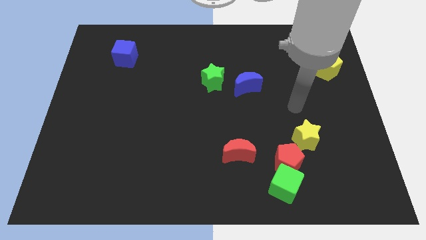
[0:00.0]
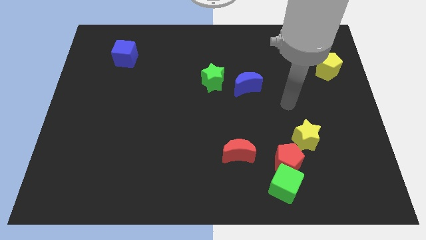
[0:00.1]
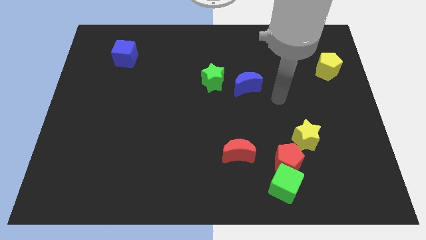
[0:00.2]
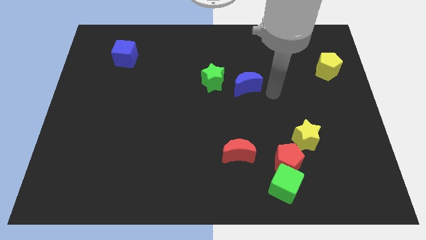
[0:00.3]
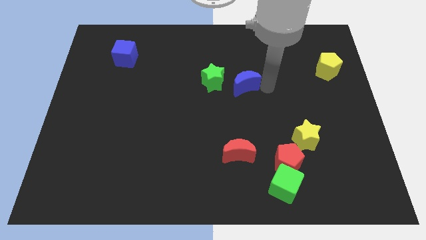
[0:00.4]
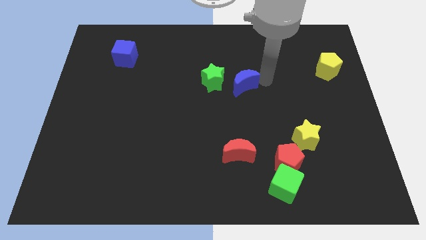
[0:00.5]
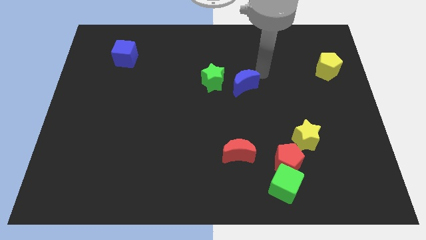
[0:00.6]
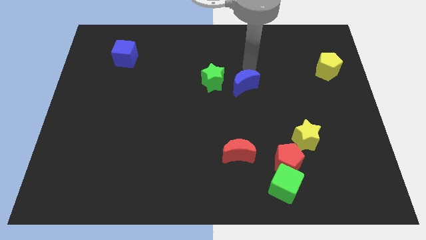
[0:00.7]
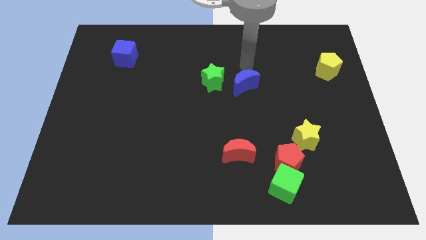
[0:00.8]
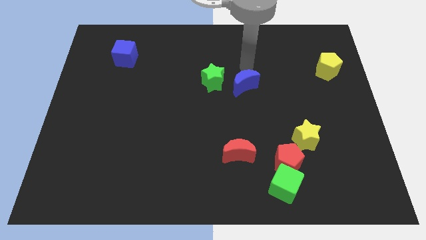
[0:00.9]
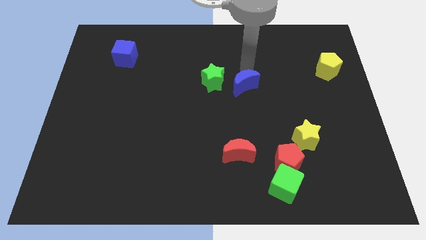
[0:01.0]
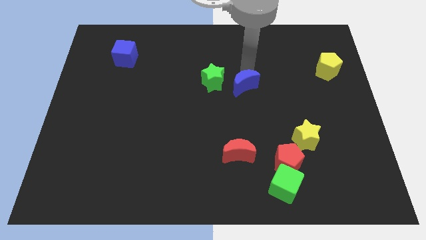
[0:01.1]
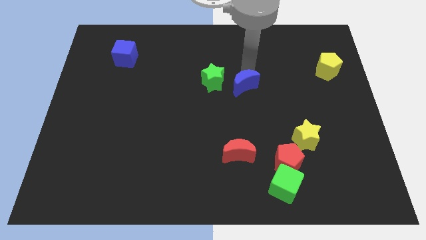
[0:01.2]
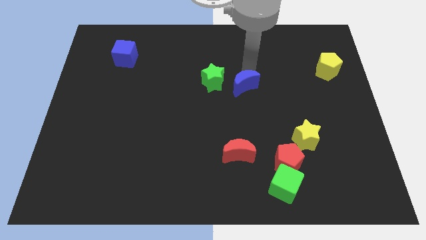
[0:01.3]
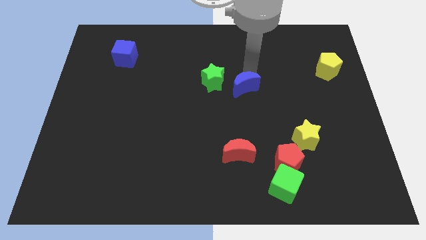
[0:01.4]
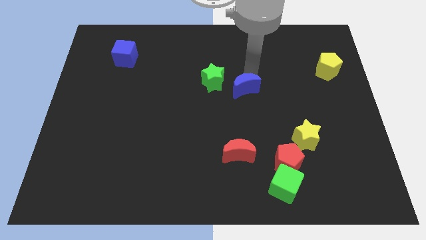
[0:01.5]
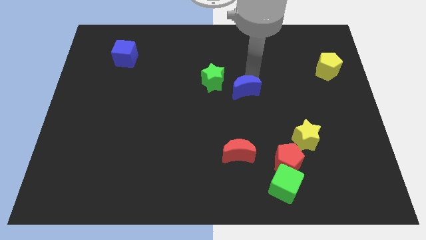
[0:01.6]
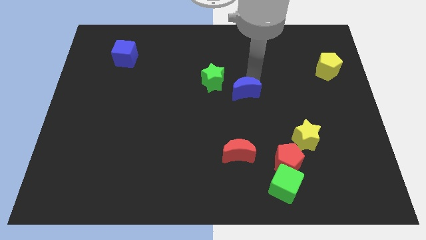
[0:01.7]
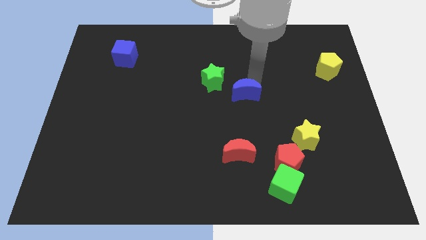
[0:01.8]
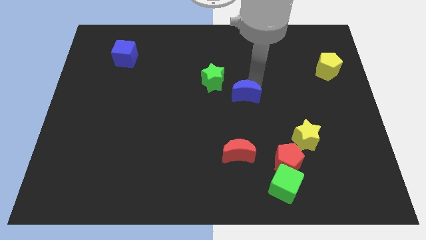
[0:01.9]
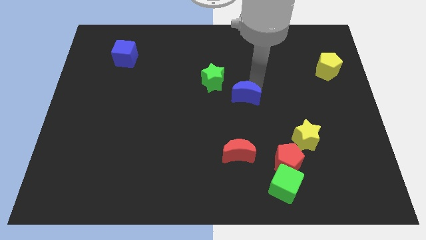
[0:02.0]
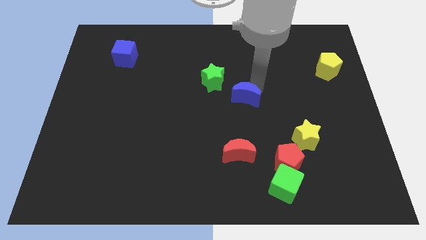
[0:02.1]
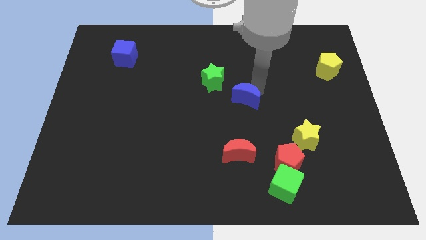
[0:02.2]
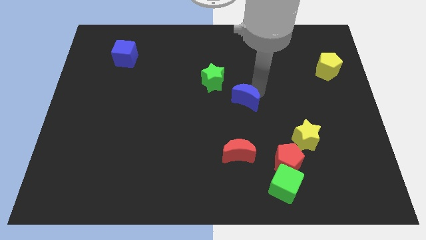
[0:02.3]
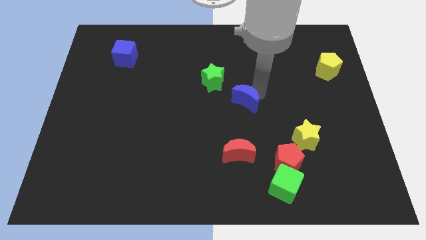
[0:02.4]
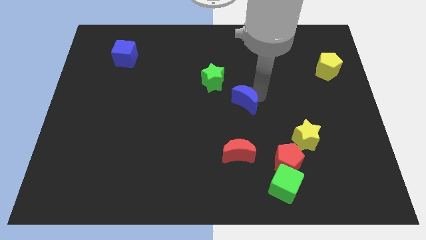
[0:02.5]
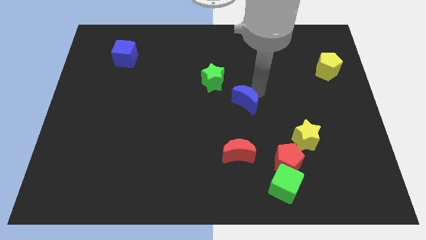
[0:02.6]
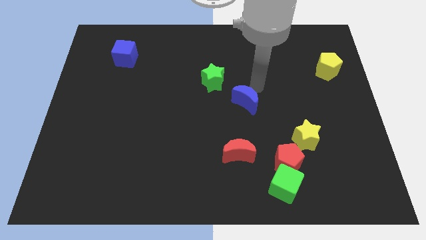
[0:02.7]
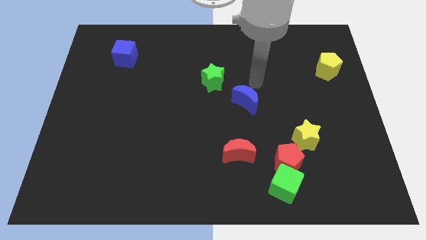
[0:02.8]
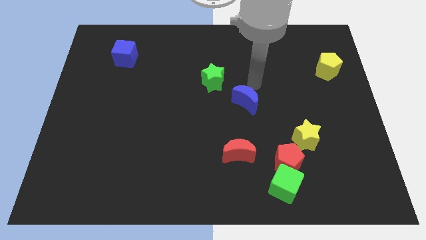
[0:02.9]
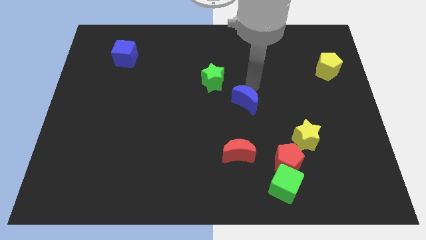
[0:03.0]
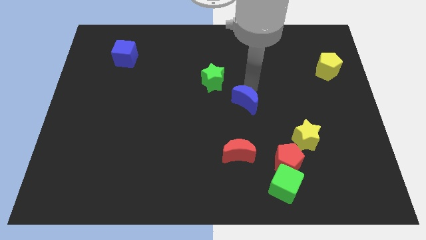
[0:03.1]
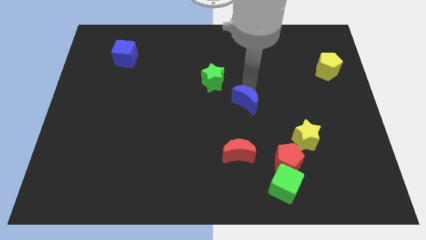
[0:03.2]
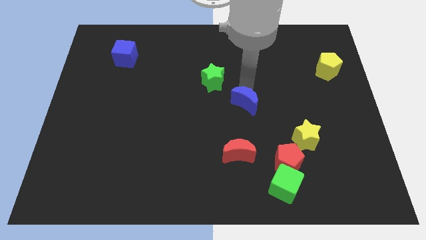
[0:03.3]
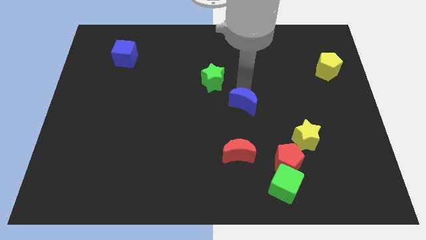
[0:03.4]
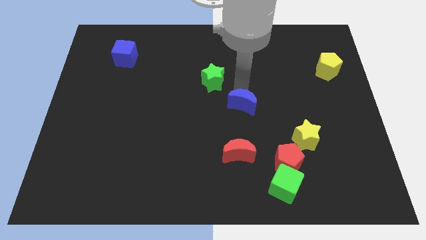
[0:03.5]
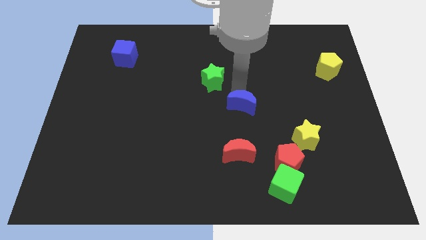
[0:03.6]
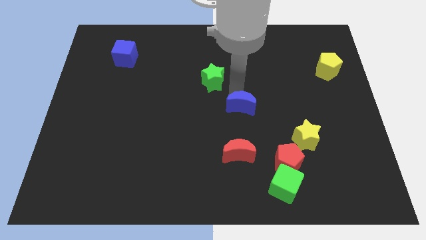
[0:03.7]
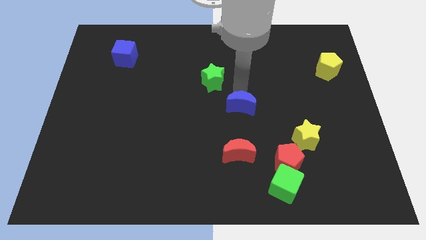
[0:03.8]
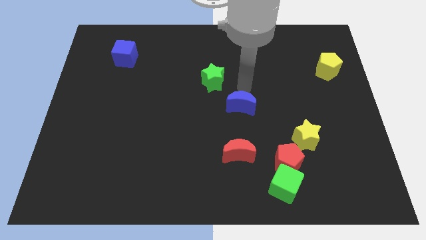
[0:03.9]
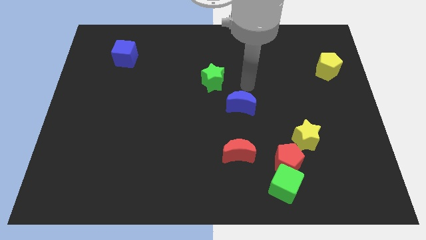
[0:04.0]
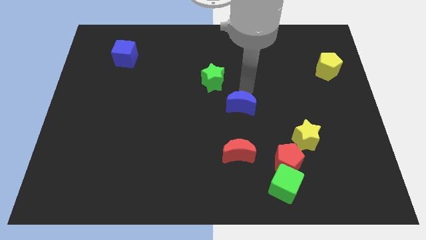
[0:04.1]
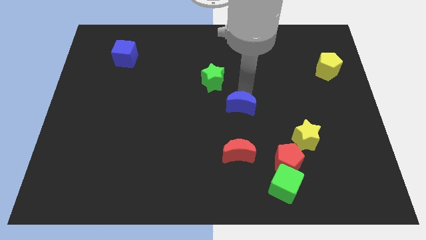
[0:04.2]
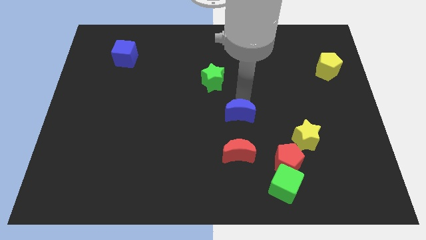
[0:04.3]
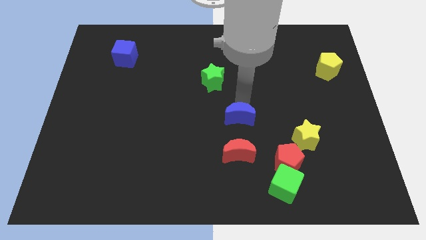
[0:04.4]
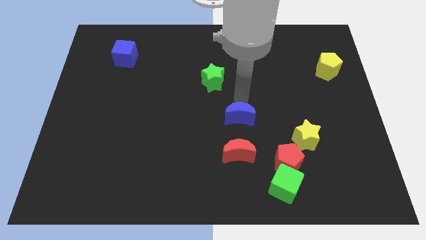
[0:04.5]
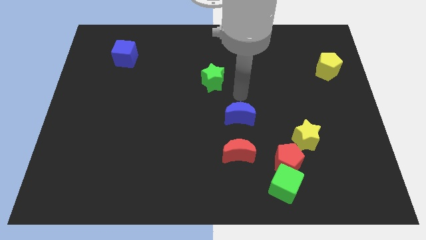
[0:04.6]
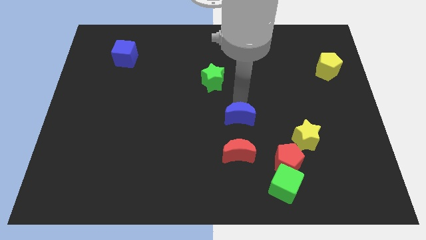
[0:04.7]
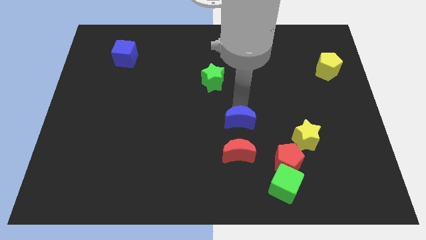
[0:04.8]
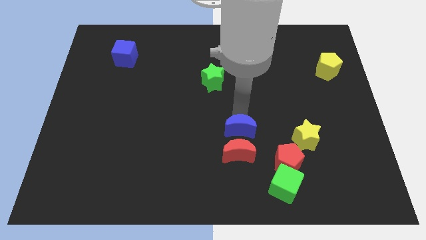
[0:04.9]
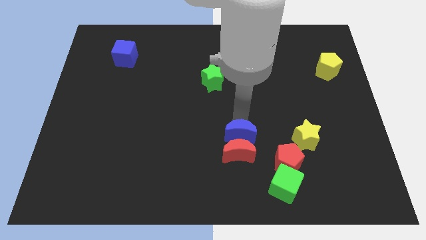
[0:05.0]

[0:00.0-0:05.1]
push the blue moon to the red moon

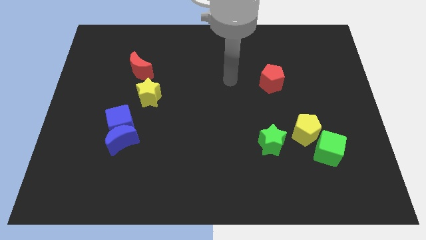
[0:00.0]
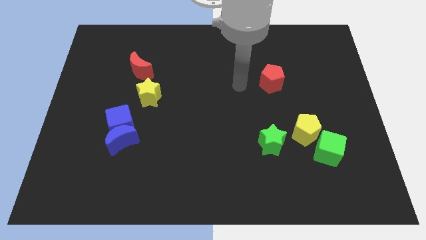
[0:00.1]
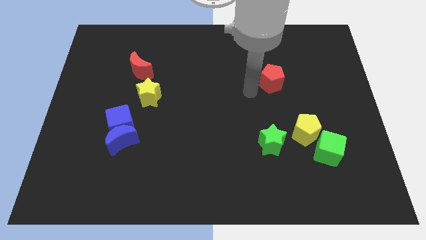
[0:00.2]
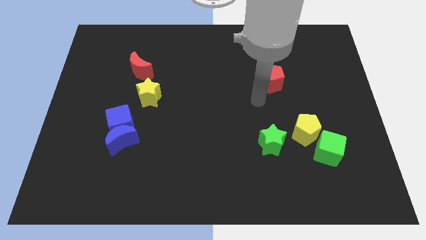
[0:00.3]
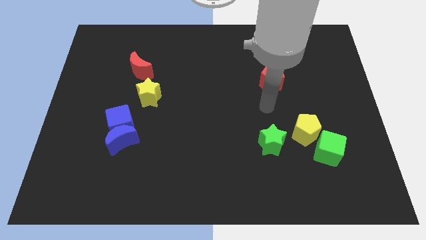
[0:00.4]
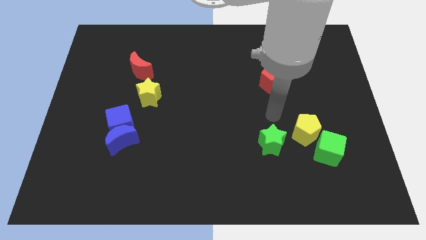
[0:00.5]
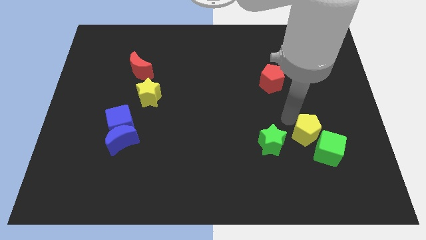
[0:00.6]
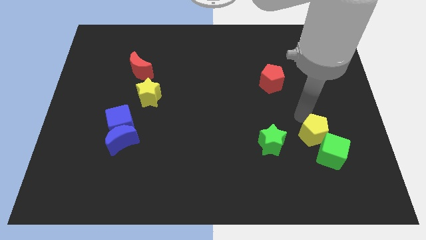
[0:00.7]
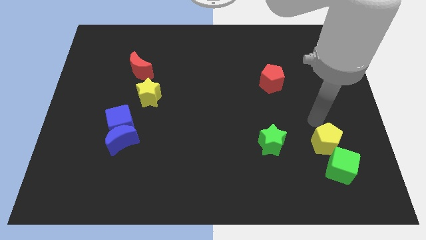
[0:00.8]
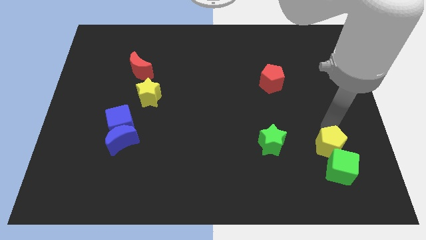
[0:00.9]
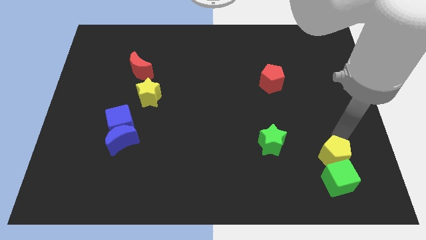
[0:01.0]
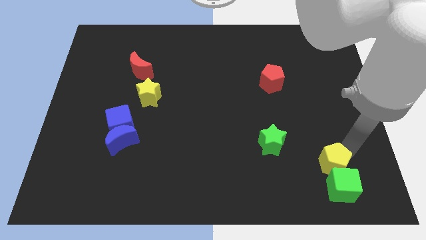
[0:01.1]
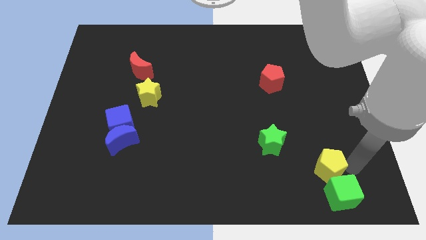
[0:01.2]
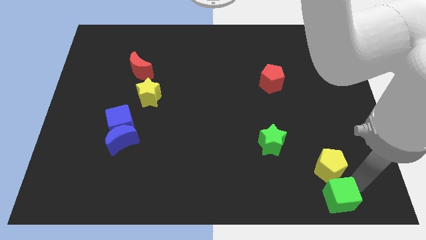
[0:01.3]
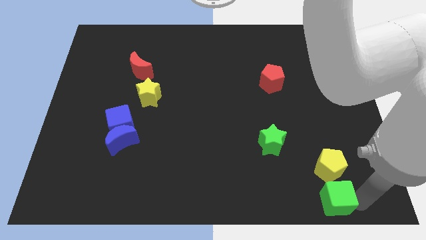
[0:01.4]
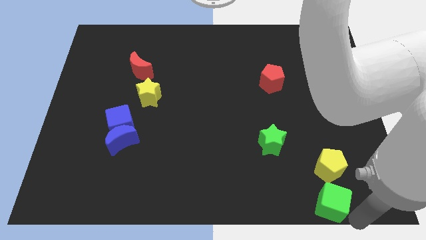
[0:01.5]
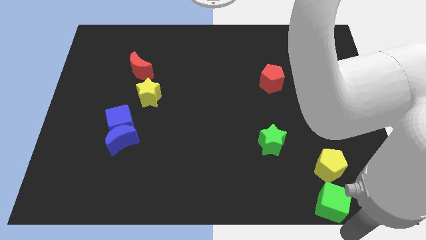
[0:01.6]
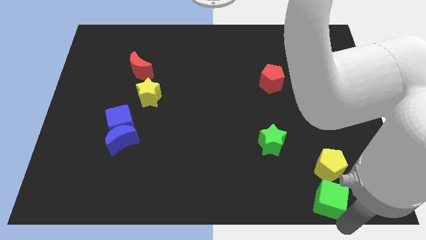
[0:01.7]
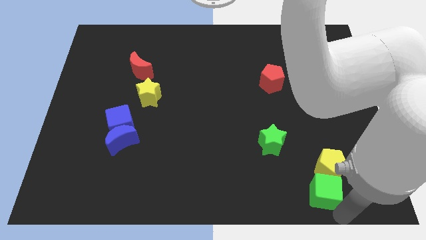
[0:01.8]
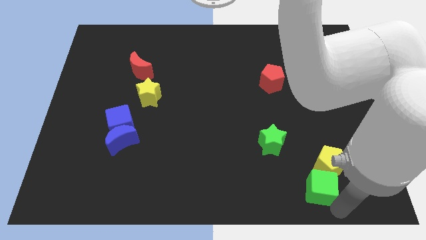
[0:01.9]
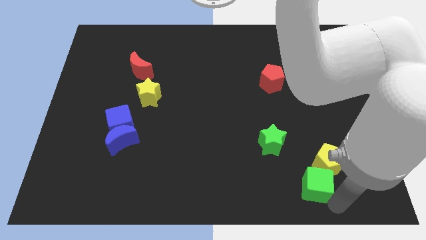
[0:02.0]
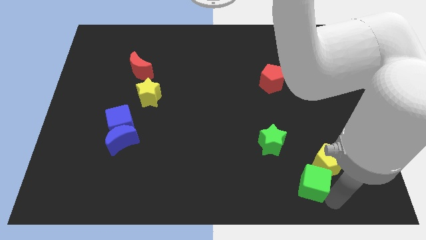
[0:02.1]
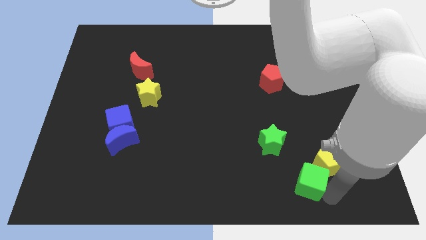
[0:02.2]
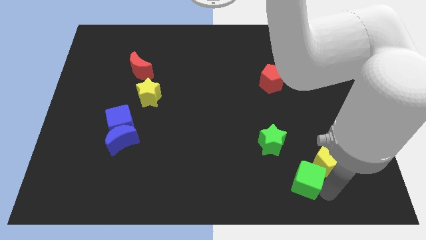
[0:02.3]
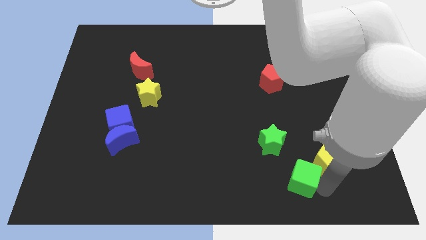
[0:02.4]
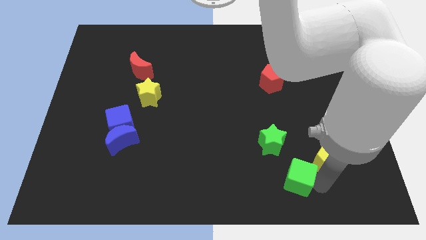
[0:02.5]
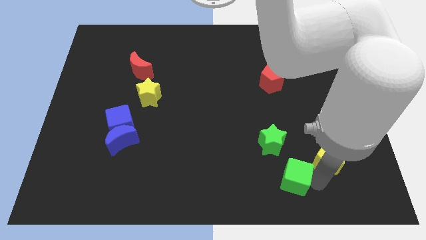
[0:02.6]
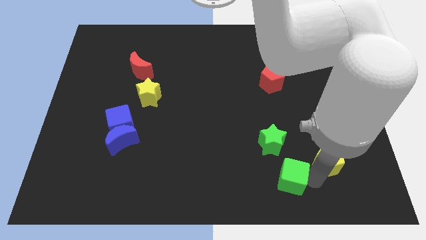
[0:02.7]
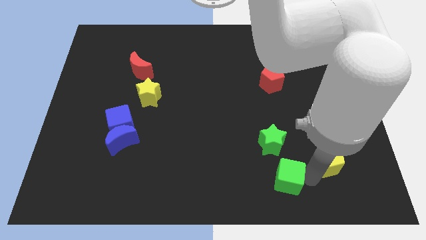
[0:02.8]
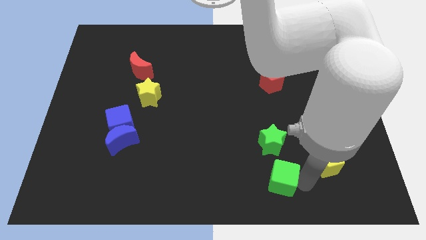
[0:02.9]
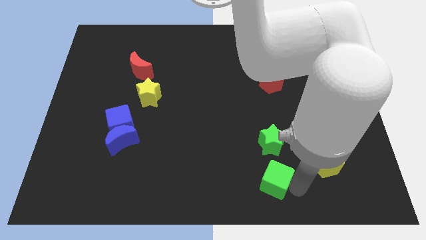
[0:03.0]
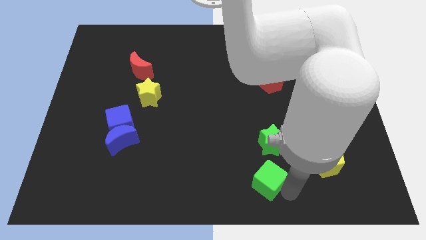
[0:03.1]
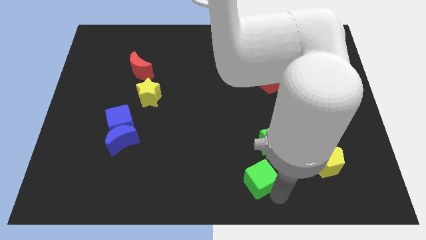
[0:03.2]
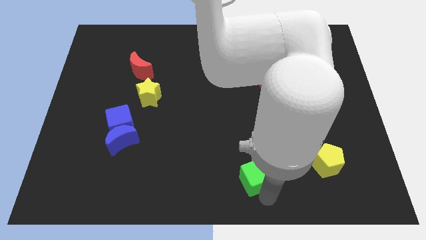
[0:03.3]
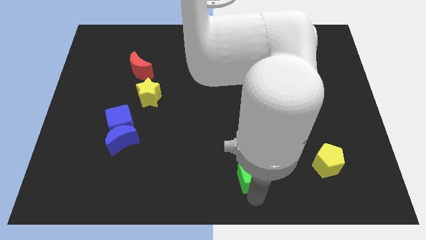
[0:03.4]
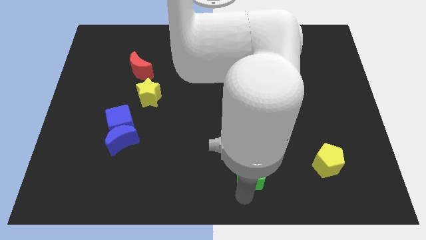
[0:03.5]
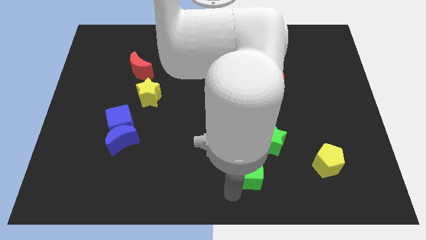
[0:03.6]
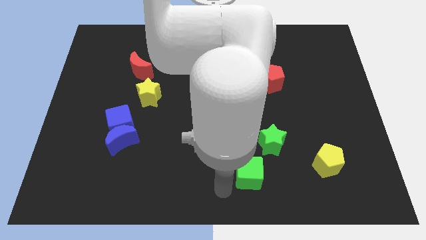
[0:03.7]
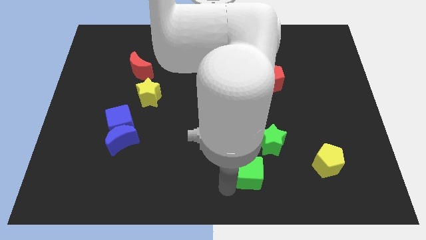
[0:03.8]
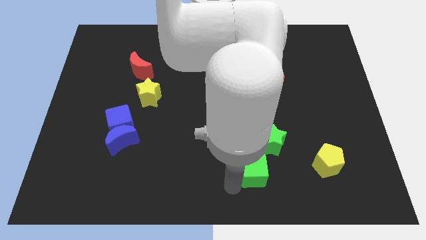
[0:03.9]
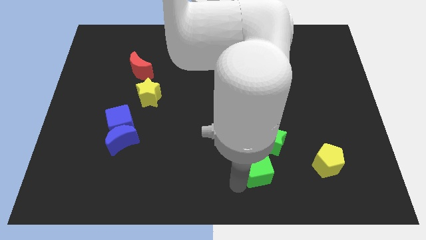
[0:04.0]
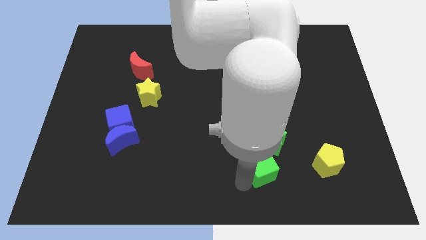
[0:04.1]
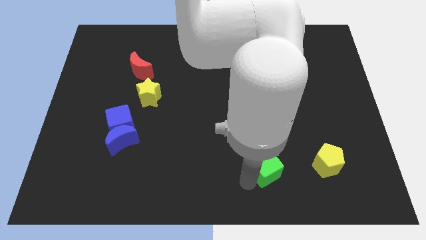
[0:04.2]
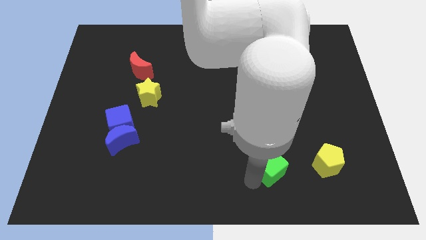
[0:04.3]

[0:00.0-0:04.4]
put the green cube next to the green star
